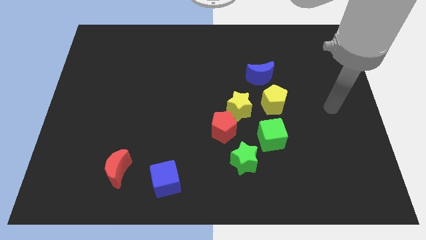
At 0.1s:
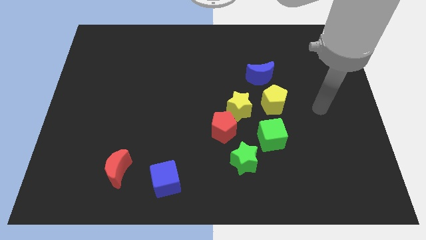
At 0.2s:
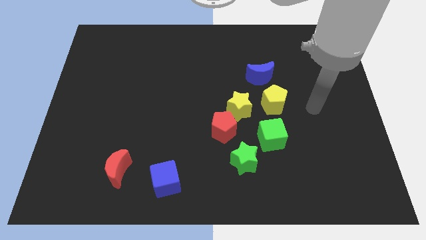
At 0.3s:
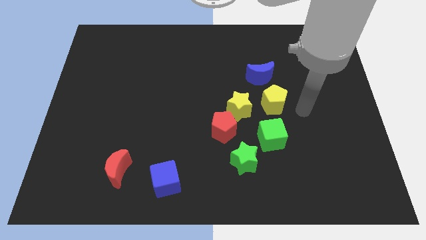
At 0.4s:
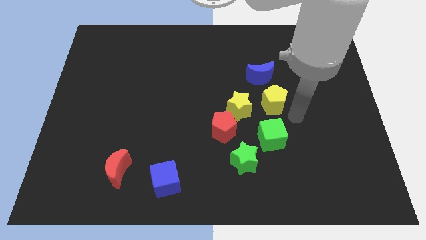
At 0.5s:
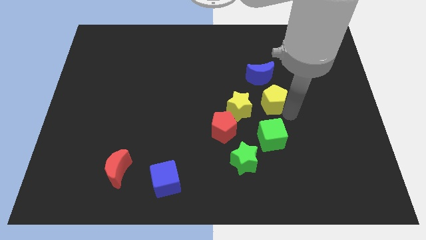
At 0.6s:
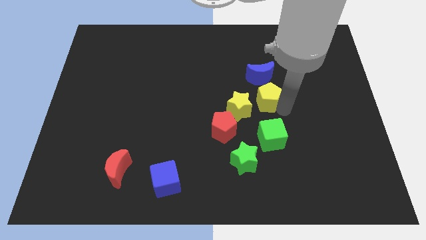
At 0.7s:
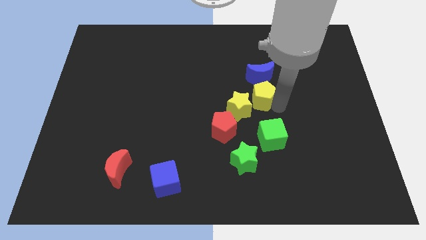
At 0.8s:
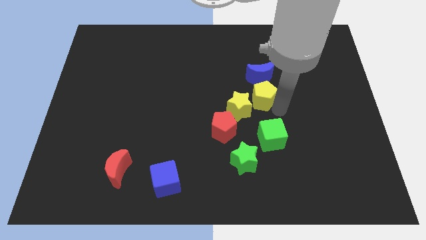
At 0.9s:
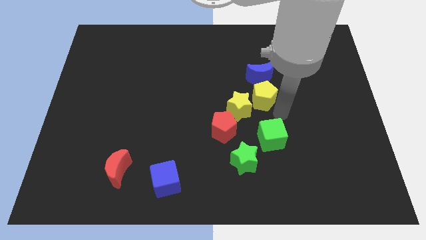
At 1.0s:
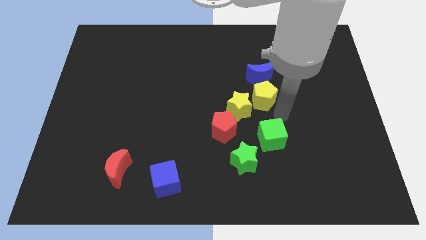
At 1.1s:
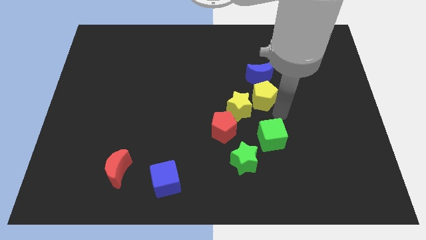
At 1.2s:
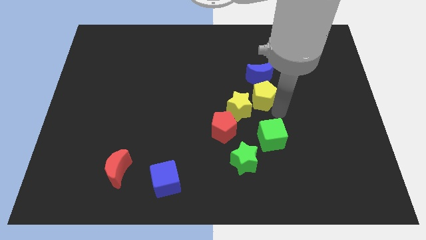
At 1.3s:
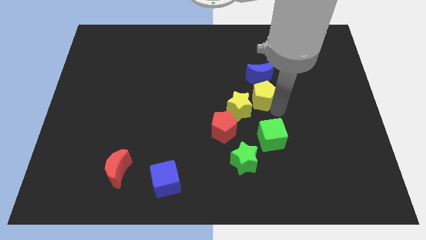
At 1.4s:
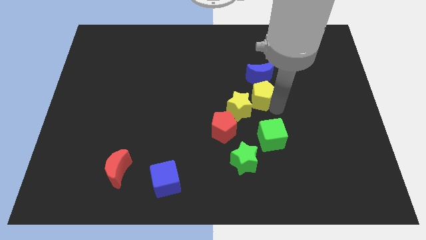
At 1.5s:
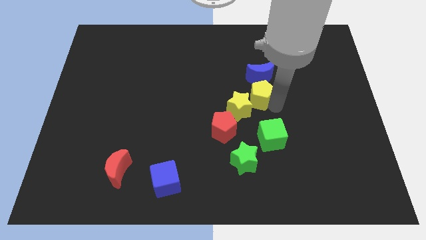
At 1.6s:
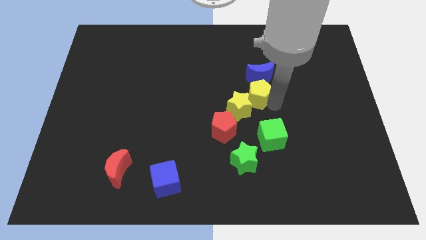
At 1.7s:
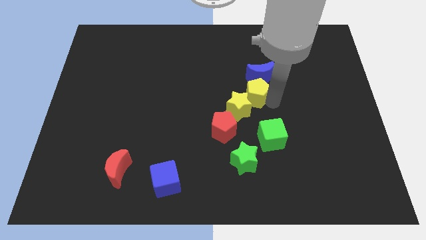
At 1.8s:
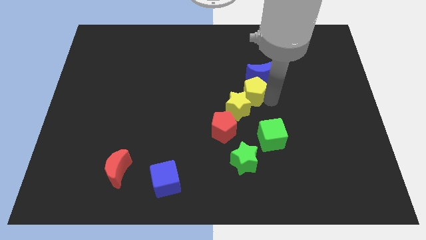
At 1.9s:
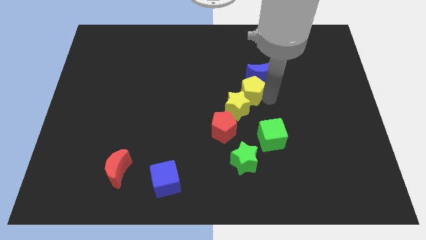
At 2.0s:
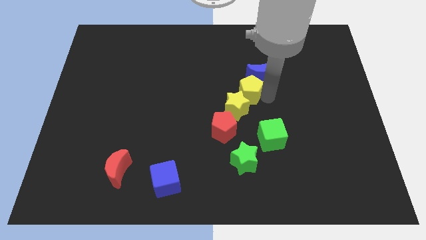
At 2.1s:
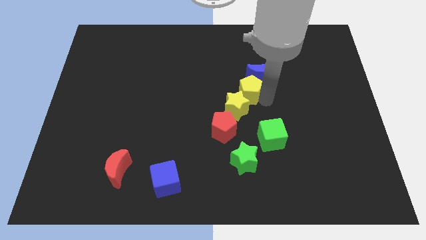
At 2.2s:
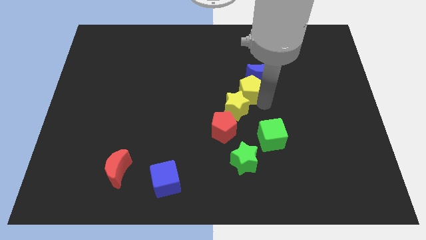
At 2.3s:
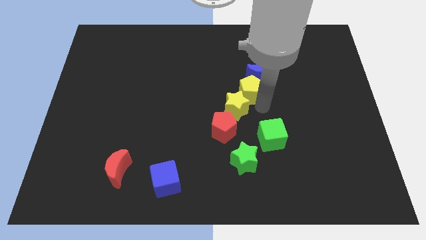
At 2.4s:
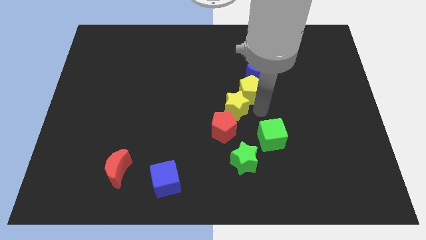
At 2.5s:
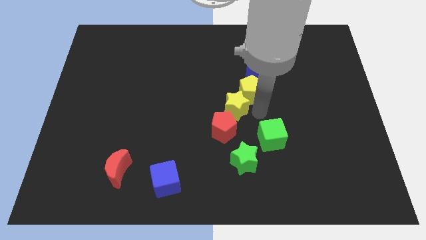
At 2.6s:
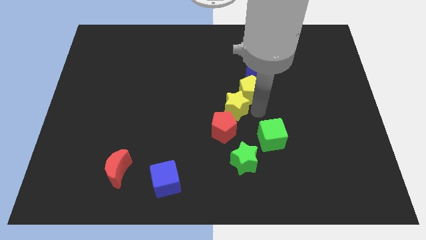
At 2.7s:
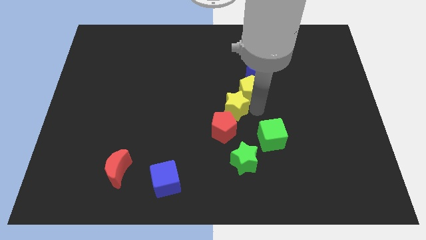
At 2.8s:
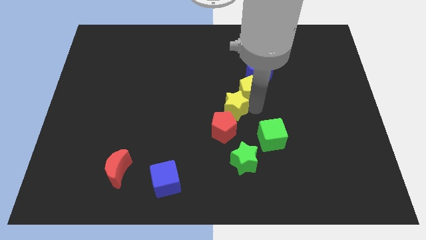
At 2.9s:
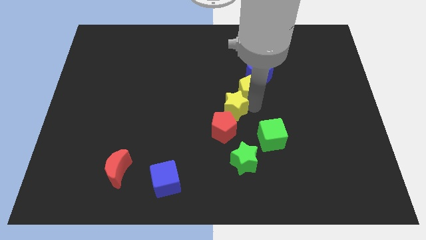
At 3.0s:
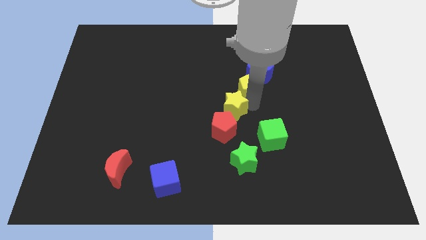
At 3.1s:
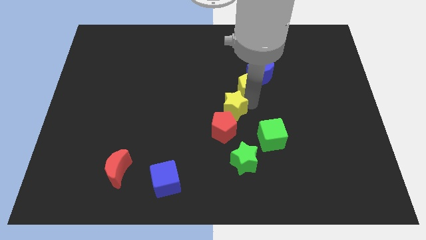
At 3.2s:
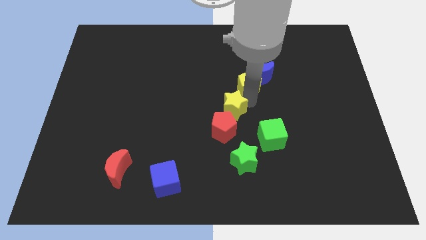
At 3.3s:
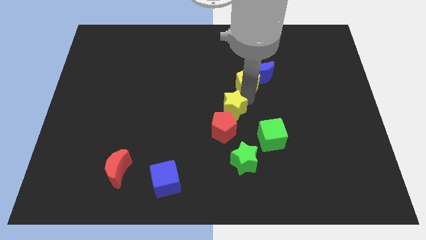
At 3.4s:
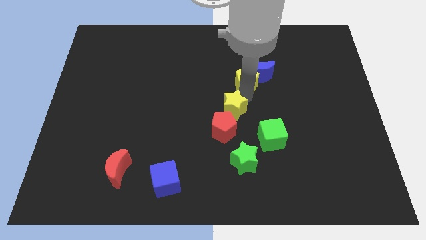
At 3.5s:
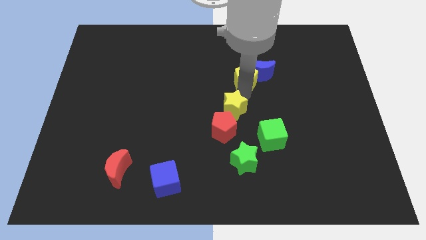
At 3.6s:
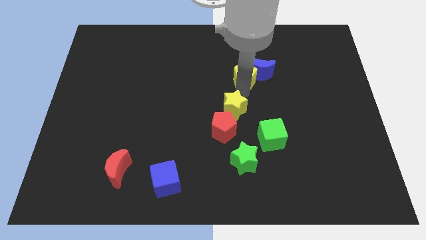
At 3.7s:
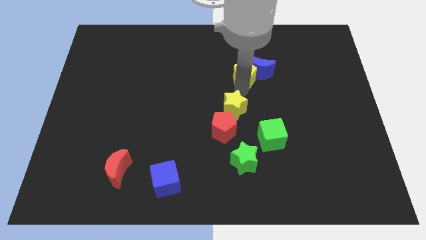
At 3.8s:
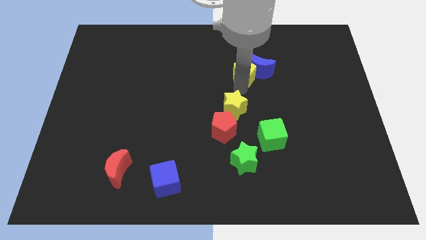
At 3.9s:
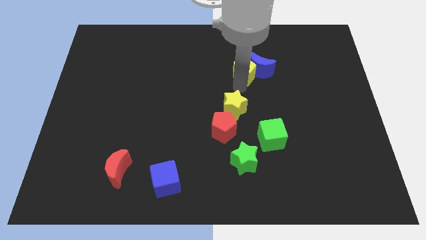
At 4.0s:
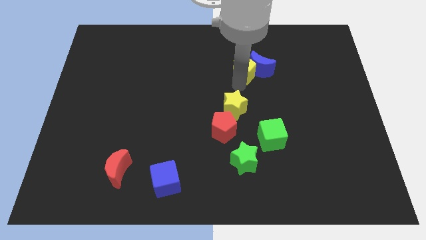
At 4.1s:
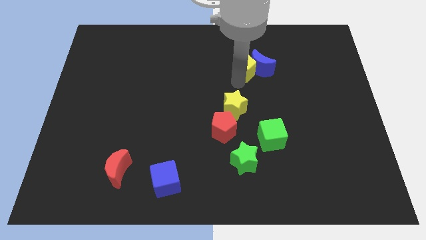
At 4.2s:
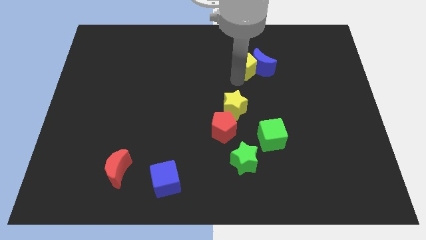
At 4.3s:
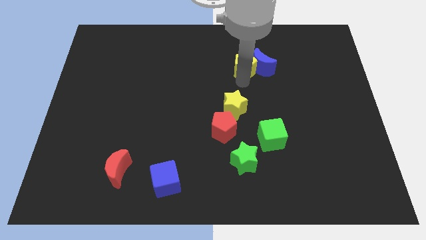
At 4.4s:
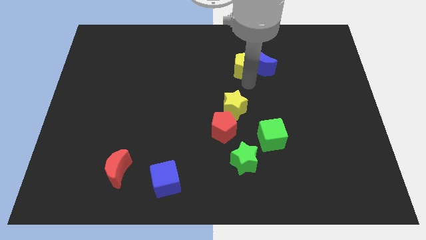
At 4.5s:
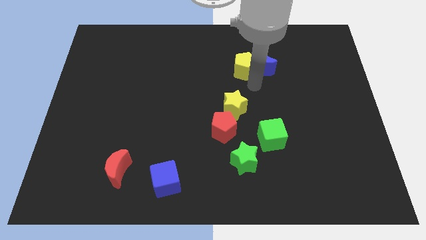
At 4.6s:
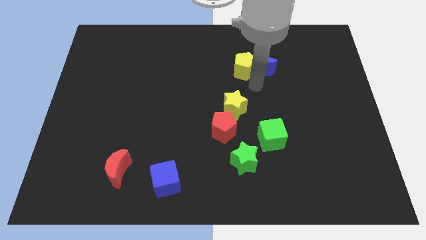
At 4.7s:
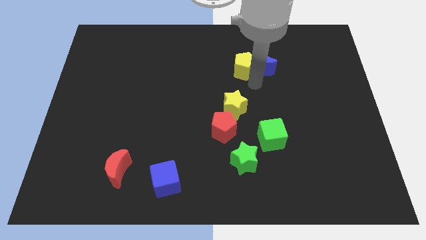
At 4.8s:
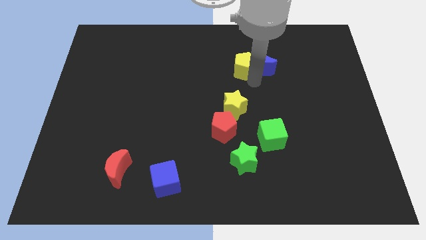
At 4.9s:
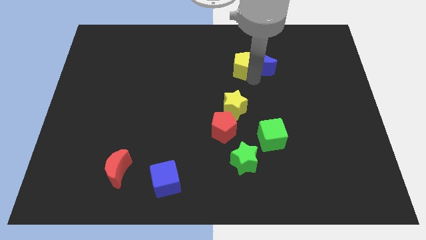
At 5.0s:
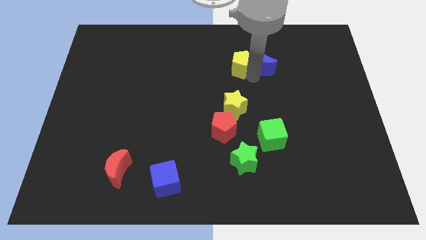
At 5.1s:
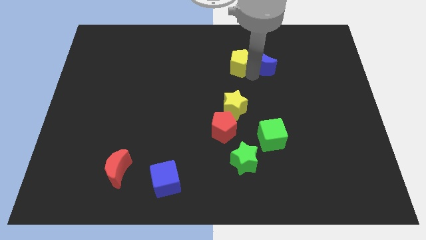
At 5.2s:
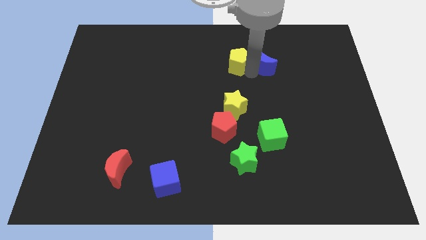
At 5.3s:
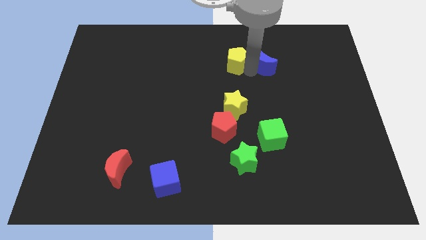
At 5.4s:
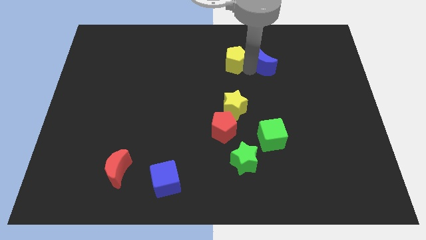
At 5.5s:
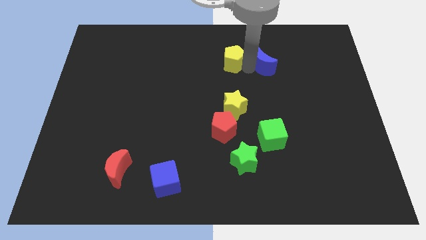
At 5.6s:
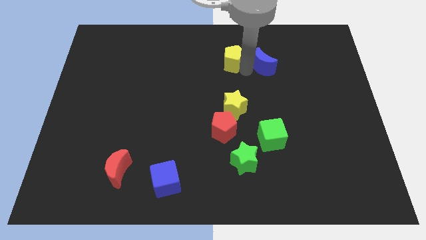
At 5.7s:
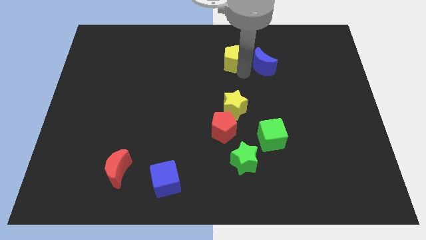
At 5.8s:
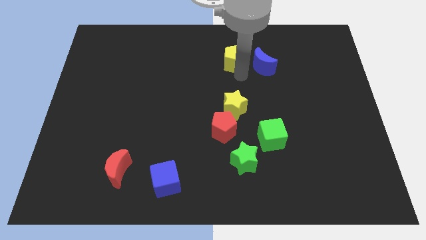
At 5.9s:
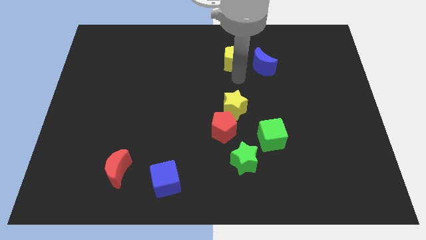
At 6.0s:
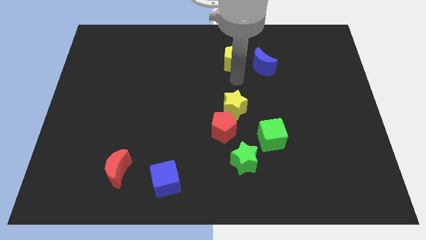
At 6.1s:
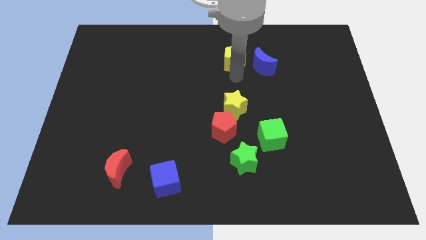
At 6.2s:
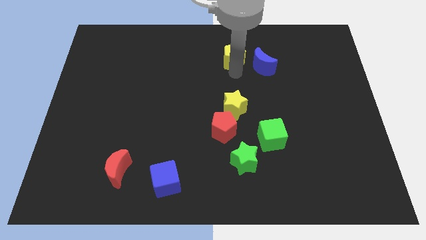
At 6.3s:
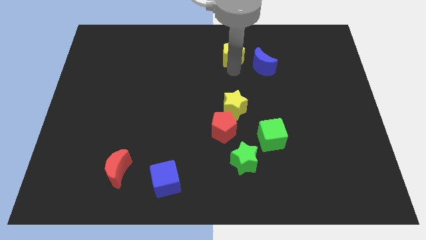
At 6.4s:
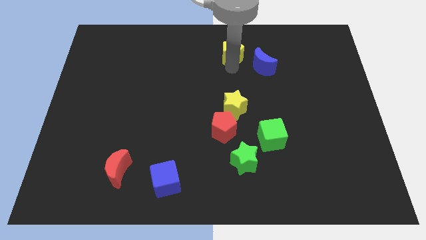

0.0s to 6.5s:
push the yellow pentagon to the towards your base

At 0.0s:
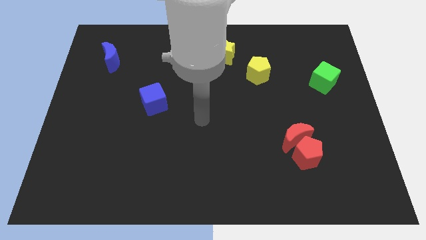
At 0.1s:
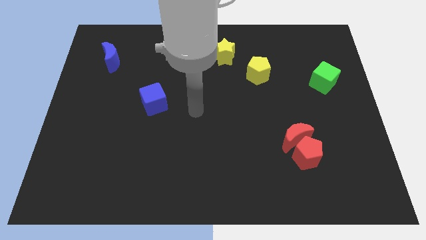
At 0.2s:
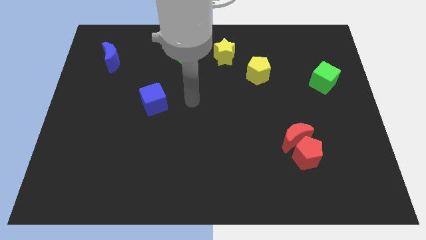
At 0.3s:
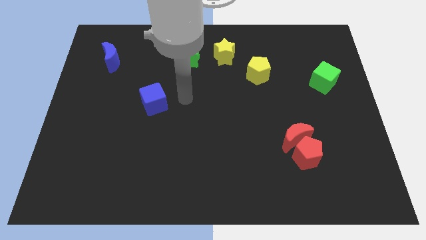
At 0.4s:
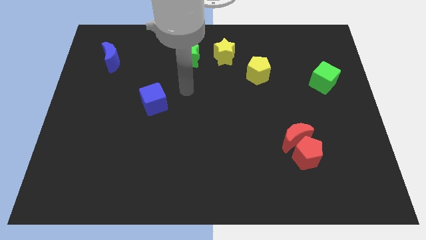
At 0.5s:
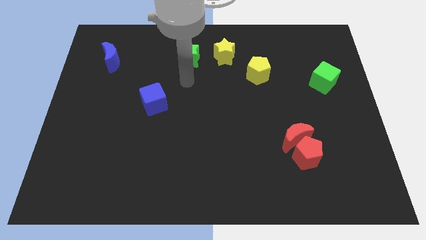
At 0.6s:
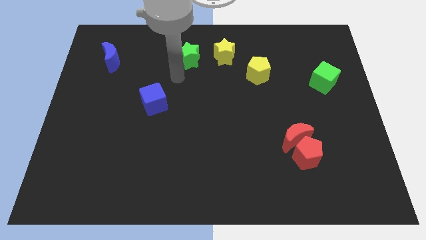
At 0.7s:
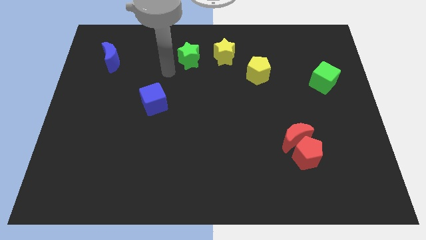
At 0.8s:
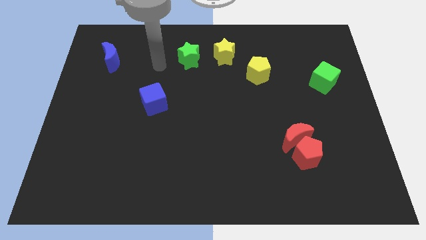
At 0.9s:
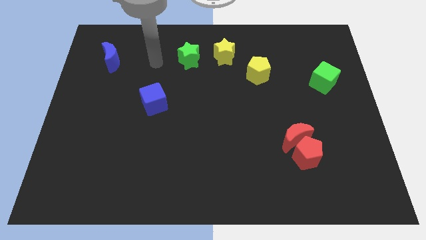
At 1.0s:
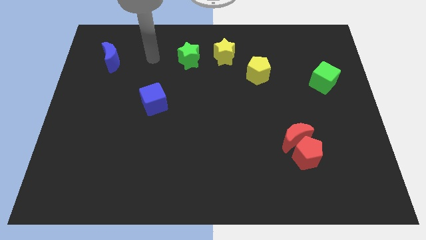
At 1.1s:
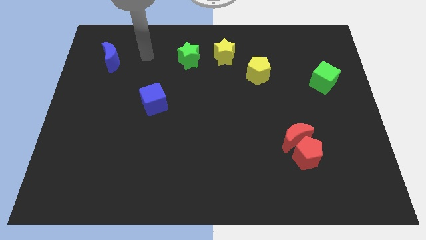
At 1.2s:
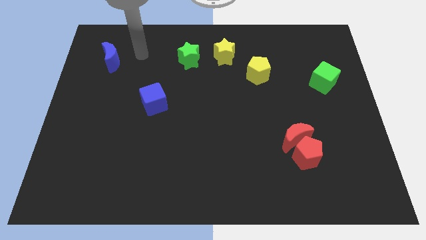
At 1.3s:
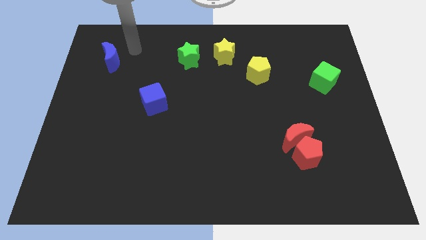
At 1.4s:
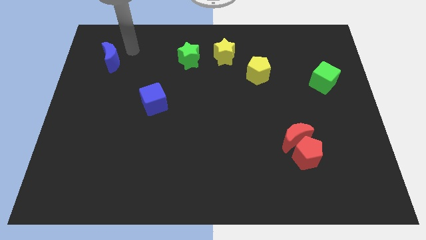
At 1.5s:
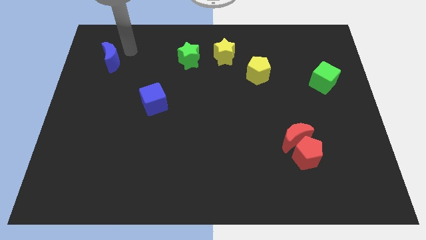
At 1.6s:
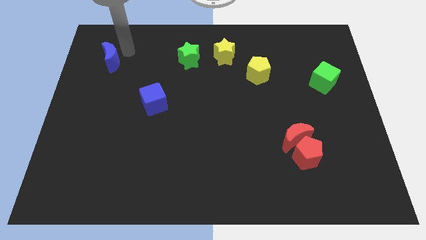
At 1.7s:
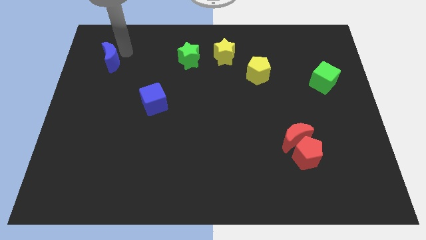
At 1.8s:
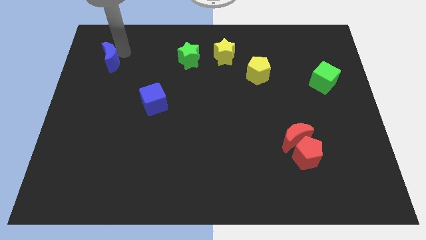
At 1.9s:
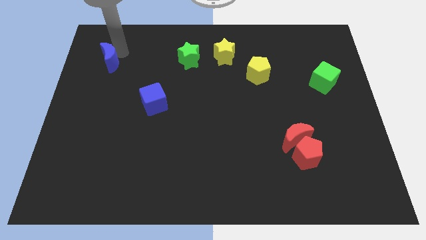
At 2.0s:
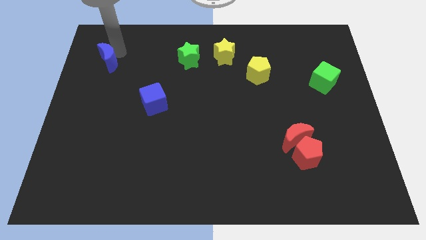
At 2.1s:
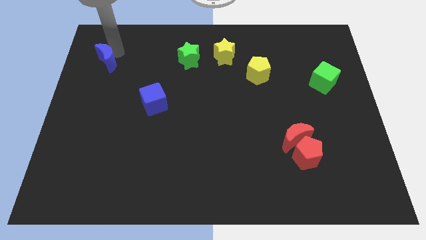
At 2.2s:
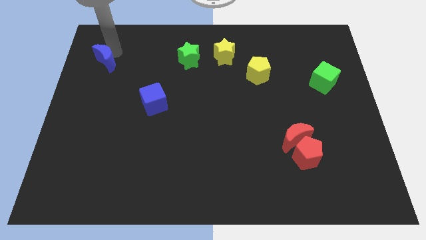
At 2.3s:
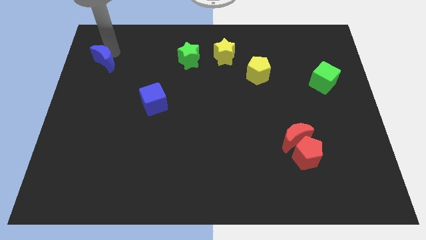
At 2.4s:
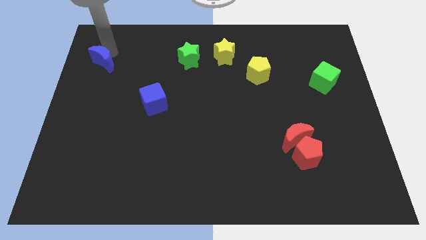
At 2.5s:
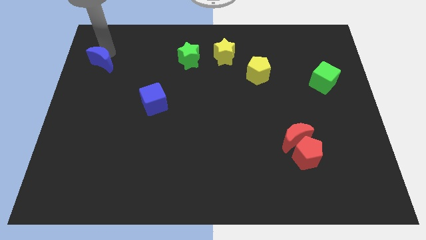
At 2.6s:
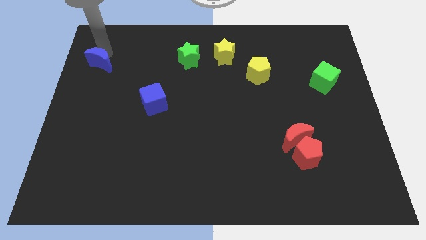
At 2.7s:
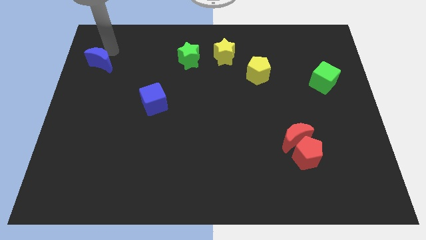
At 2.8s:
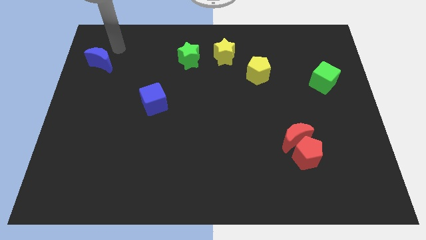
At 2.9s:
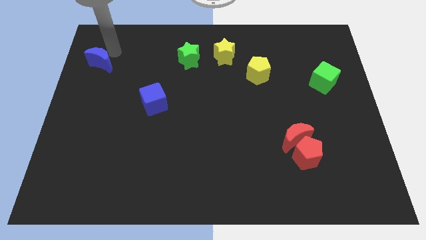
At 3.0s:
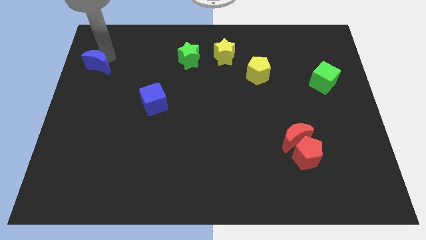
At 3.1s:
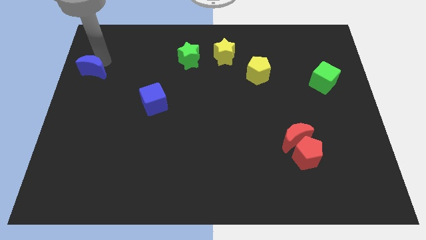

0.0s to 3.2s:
slide the blue moon to the center left
